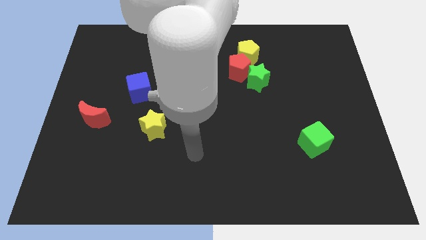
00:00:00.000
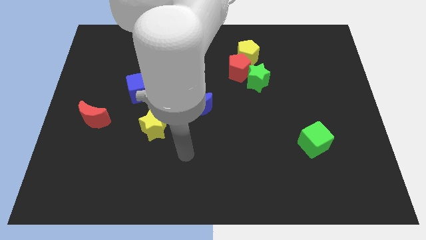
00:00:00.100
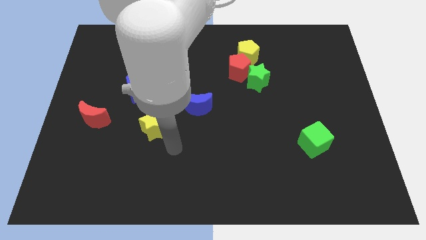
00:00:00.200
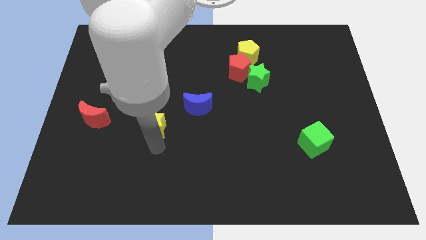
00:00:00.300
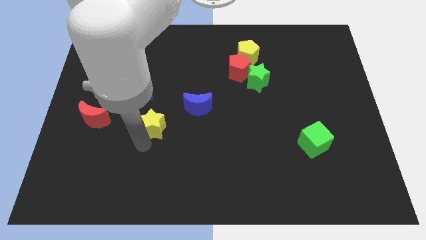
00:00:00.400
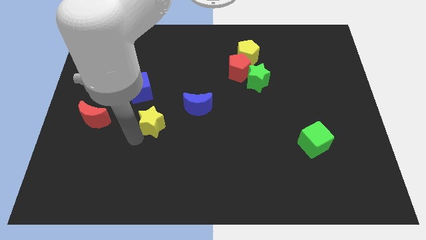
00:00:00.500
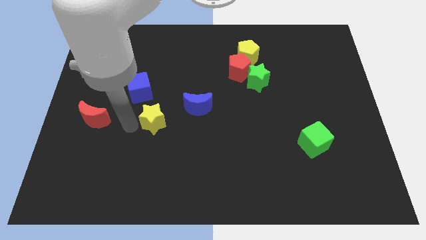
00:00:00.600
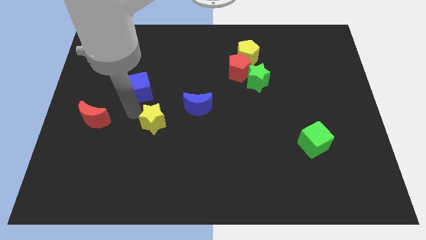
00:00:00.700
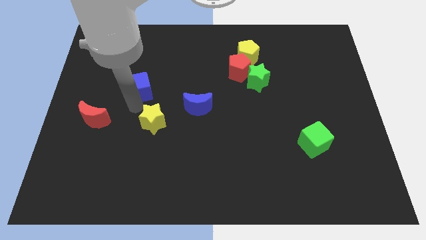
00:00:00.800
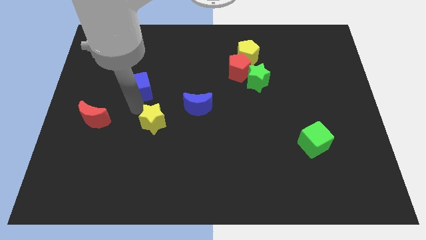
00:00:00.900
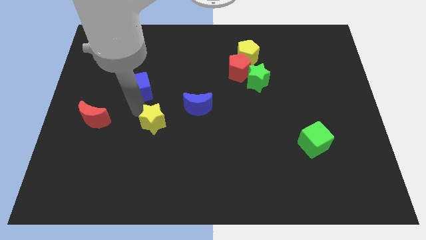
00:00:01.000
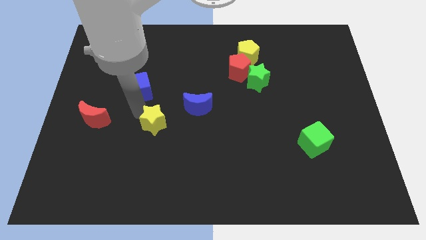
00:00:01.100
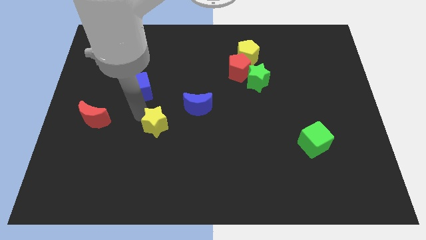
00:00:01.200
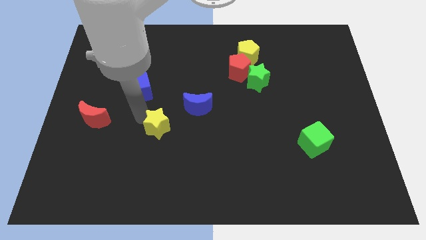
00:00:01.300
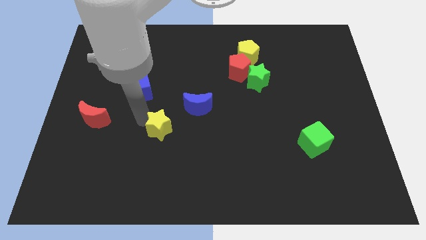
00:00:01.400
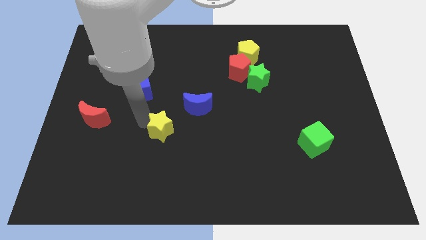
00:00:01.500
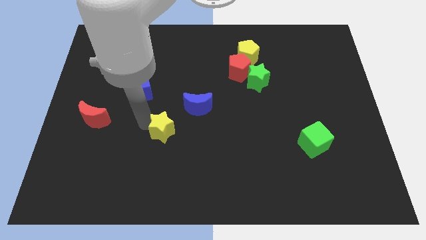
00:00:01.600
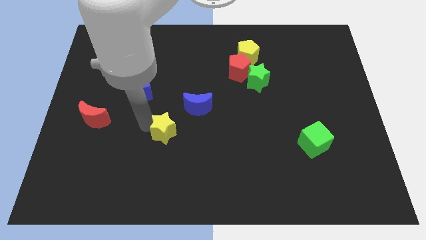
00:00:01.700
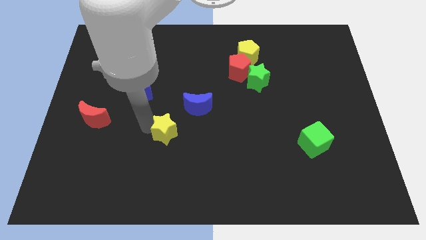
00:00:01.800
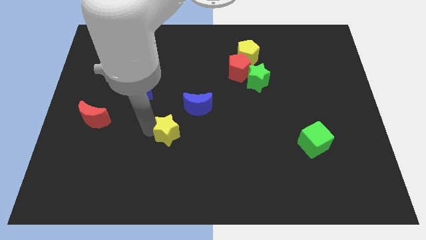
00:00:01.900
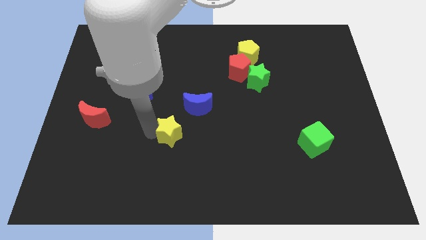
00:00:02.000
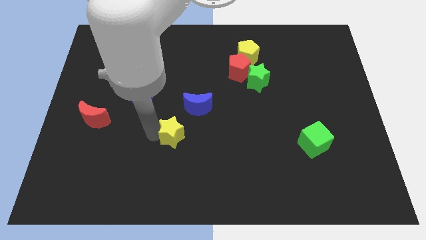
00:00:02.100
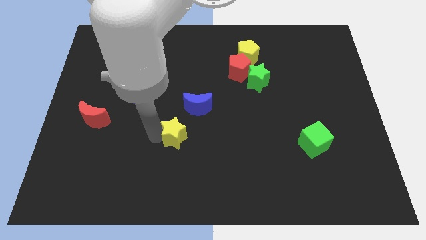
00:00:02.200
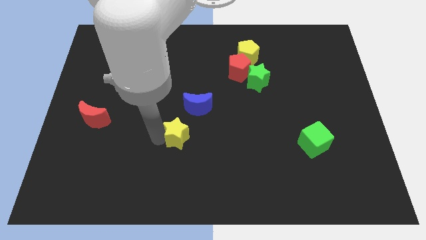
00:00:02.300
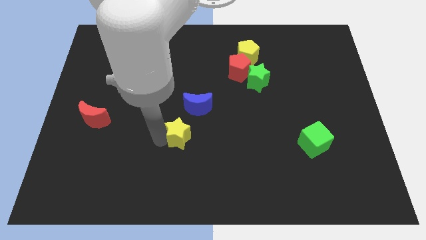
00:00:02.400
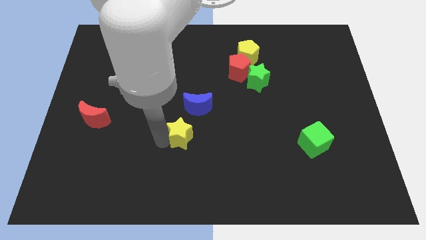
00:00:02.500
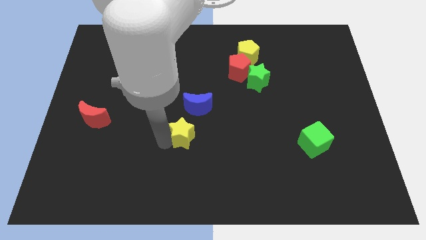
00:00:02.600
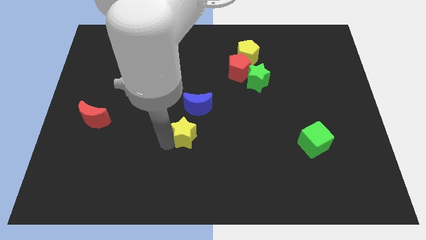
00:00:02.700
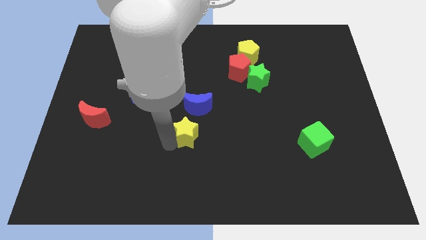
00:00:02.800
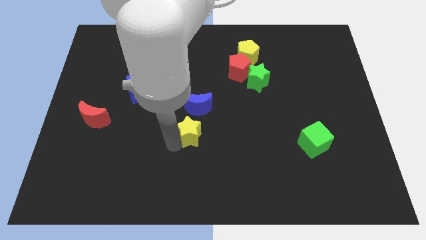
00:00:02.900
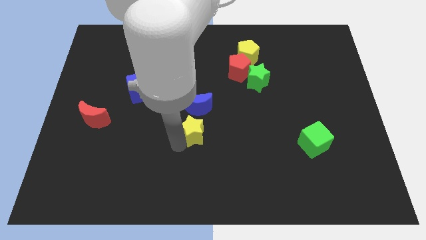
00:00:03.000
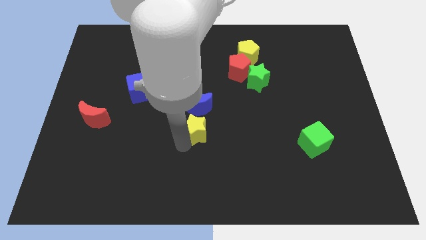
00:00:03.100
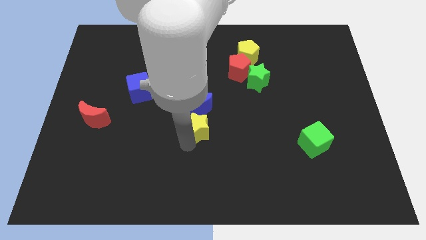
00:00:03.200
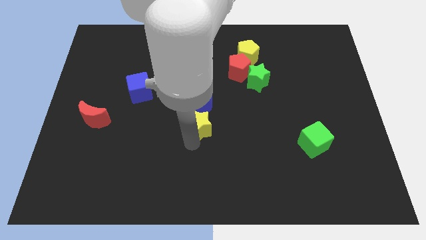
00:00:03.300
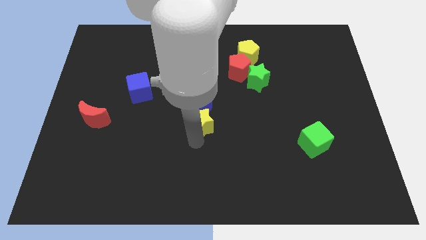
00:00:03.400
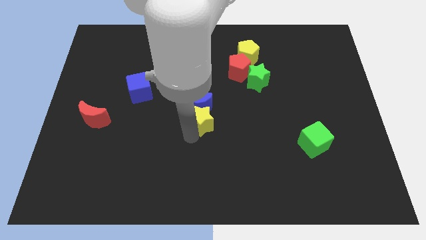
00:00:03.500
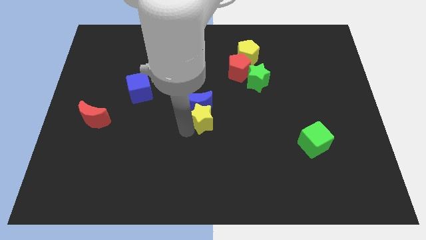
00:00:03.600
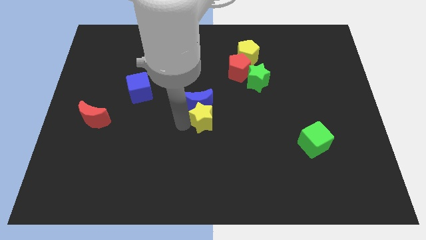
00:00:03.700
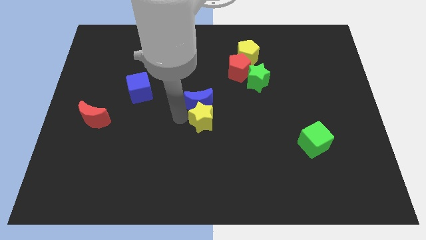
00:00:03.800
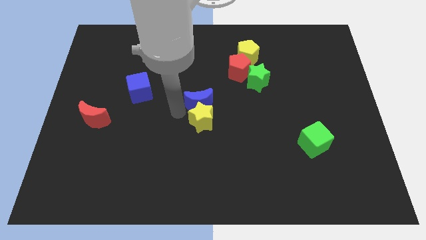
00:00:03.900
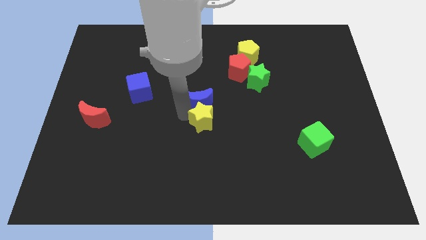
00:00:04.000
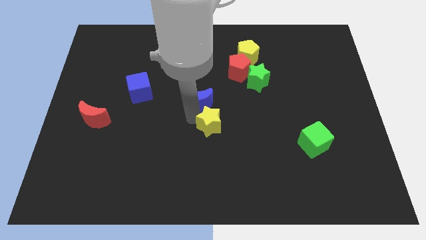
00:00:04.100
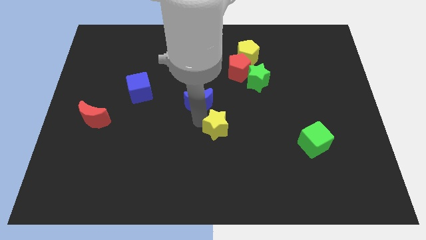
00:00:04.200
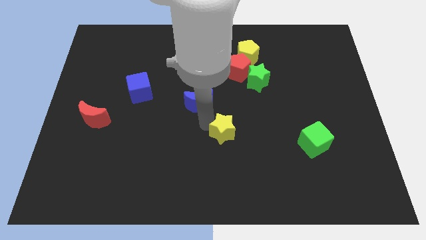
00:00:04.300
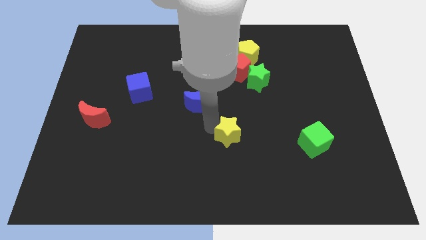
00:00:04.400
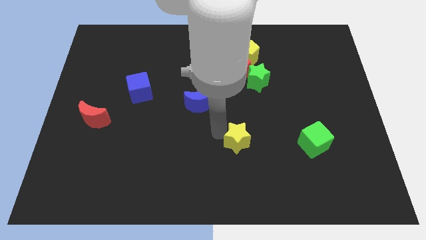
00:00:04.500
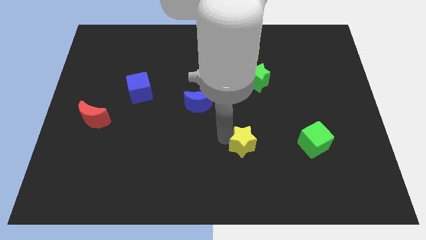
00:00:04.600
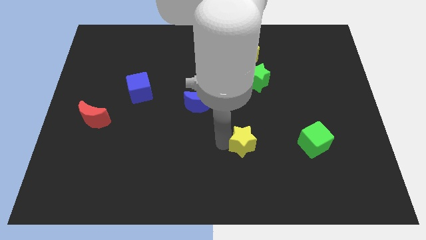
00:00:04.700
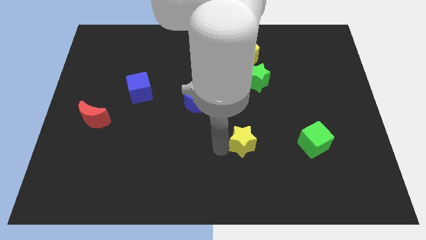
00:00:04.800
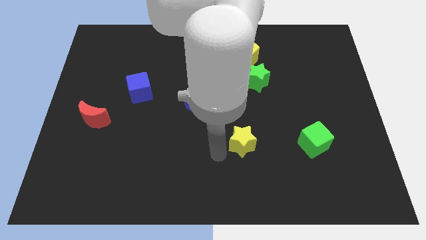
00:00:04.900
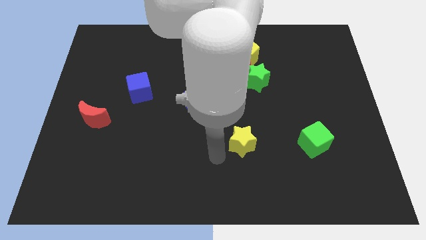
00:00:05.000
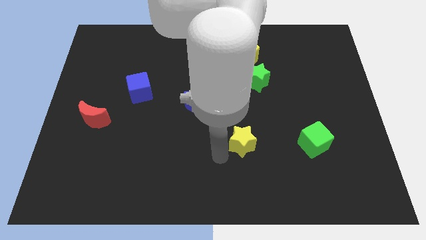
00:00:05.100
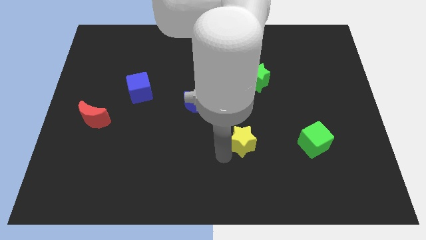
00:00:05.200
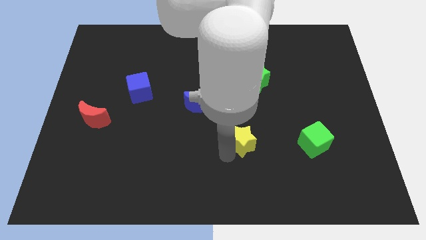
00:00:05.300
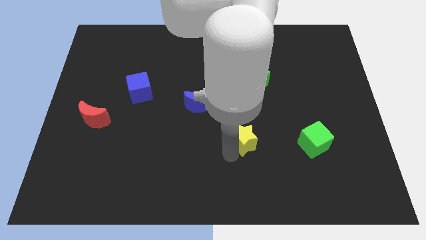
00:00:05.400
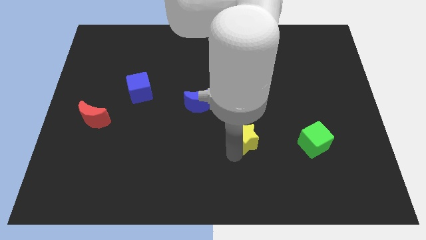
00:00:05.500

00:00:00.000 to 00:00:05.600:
move the yellow star right

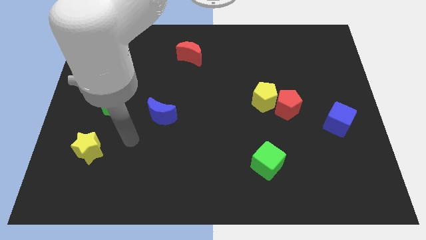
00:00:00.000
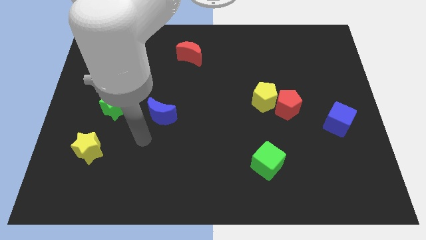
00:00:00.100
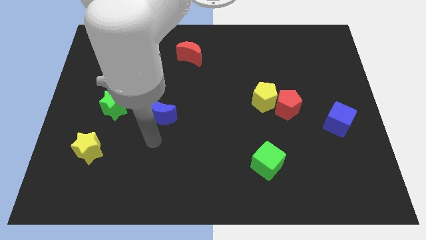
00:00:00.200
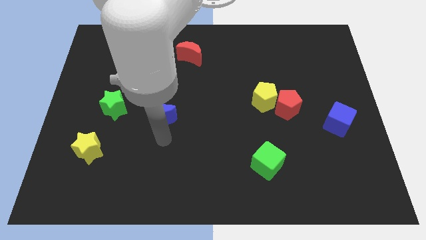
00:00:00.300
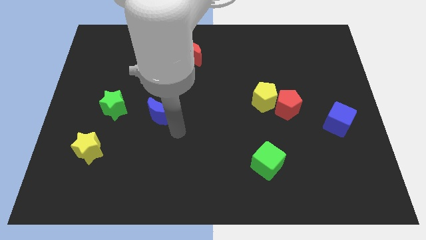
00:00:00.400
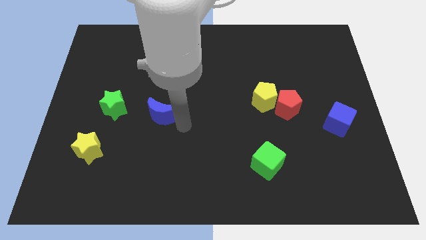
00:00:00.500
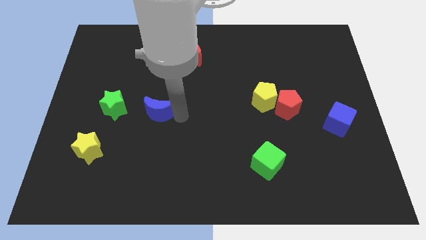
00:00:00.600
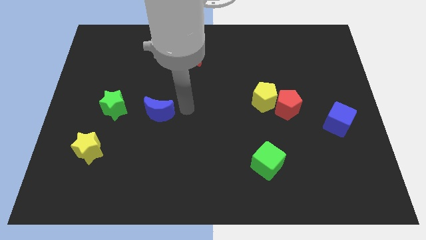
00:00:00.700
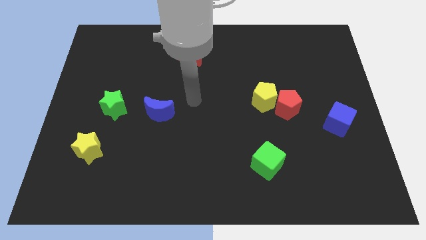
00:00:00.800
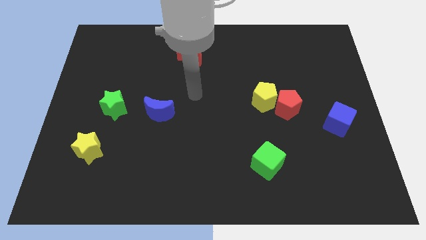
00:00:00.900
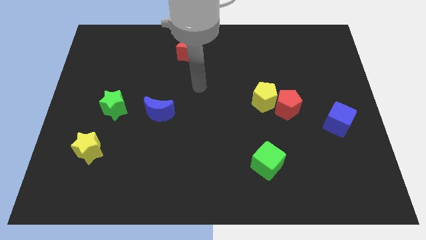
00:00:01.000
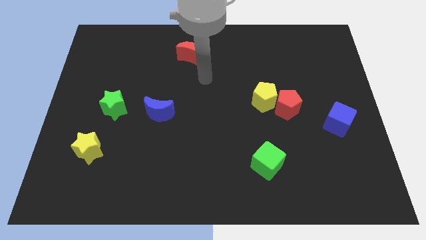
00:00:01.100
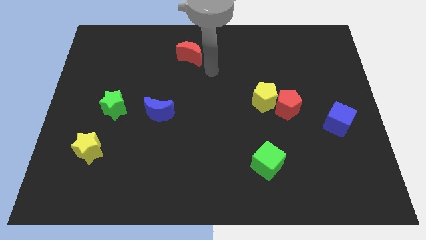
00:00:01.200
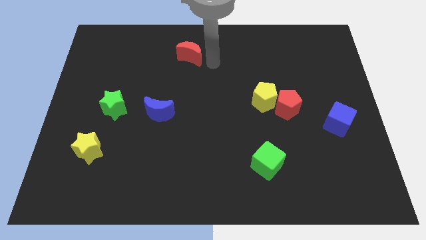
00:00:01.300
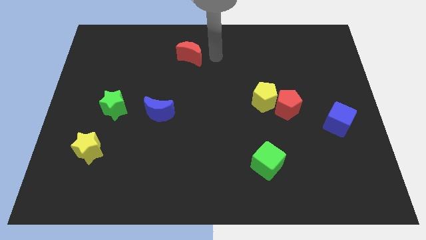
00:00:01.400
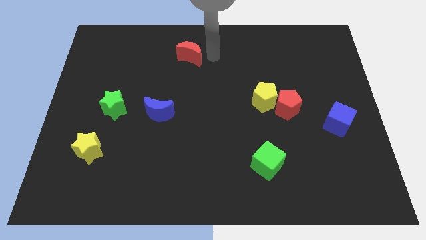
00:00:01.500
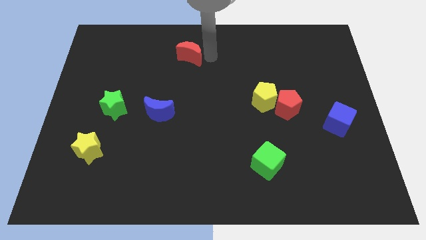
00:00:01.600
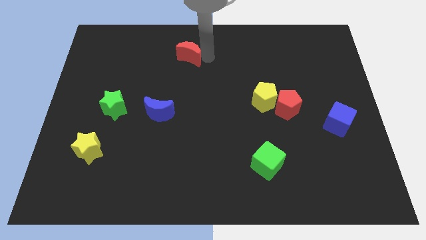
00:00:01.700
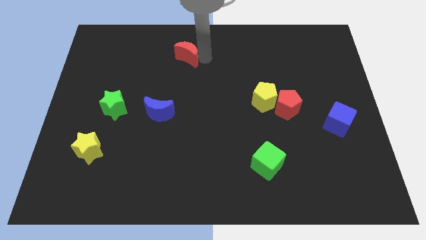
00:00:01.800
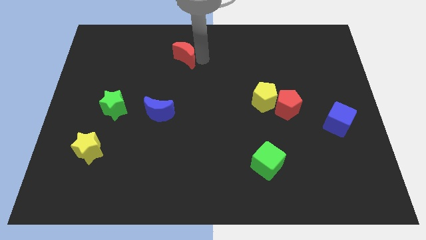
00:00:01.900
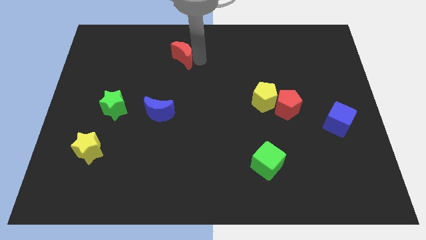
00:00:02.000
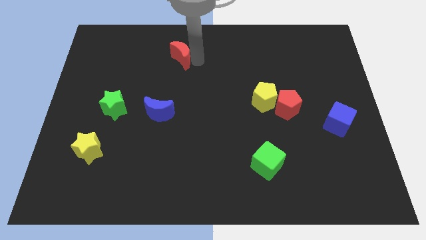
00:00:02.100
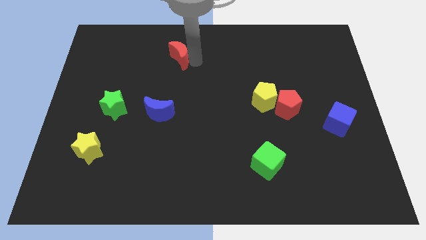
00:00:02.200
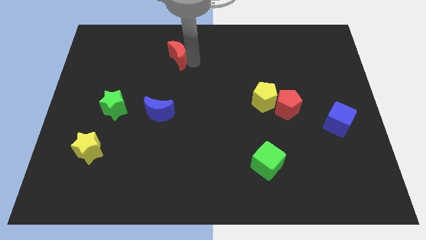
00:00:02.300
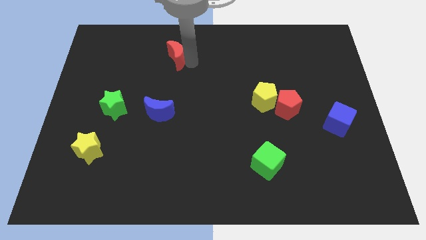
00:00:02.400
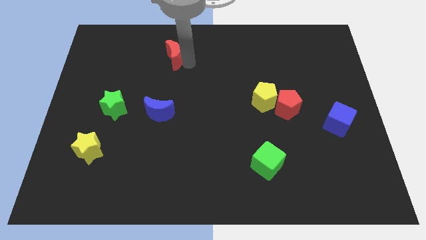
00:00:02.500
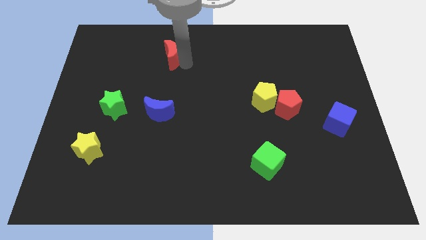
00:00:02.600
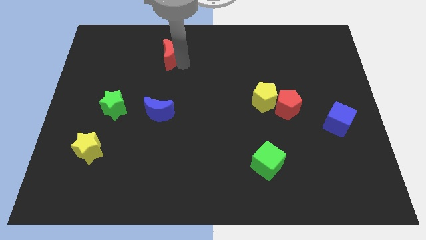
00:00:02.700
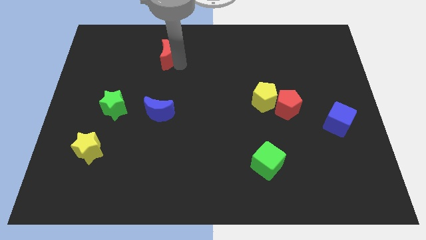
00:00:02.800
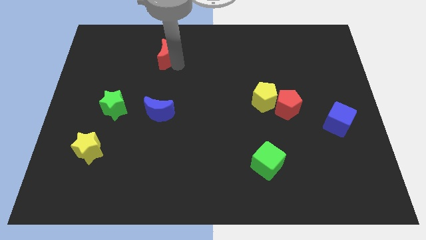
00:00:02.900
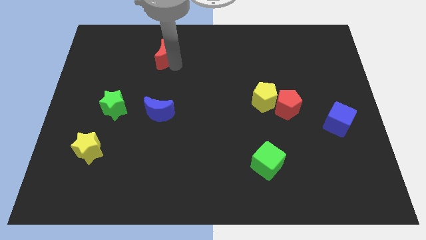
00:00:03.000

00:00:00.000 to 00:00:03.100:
slightly slide the red moon to the left
